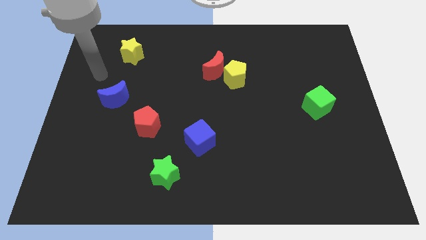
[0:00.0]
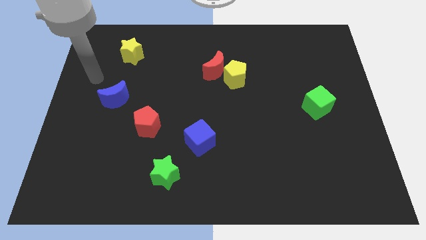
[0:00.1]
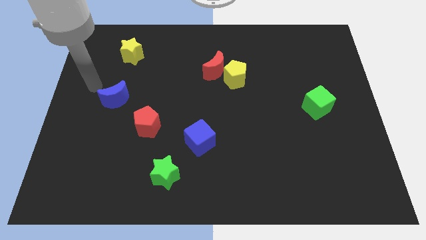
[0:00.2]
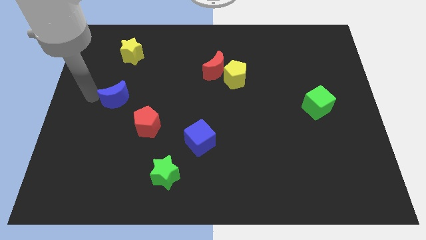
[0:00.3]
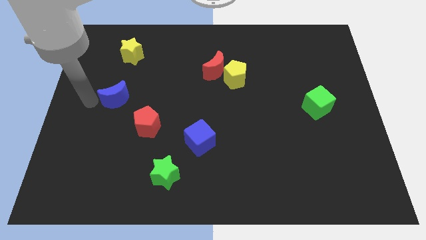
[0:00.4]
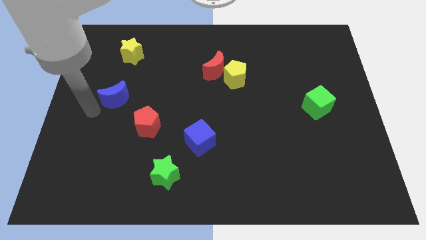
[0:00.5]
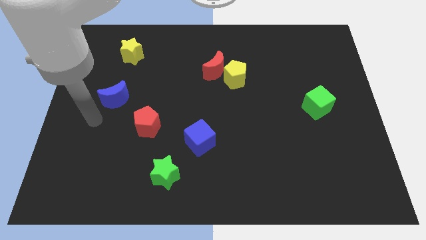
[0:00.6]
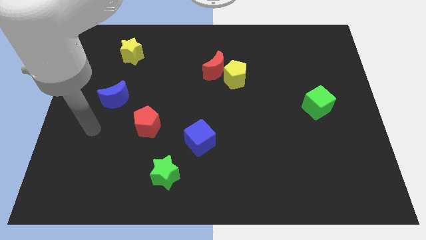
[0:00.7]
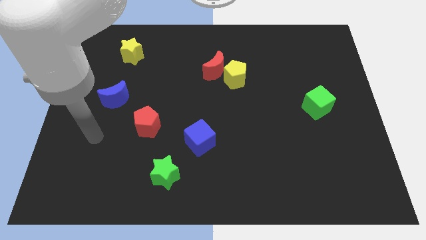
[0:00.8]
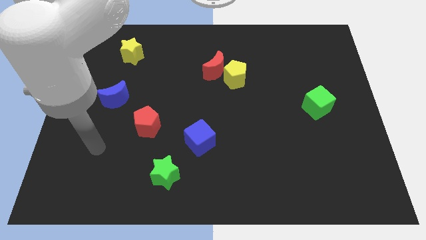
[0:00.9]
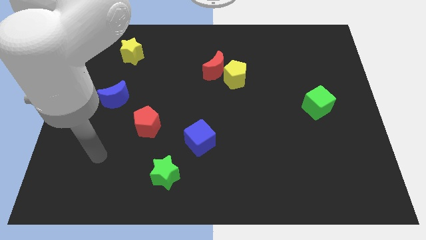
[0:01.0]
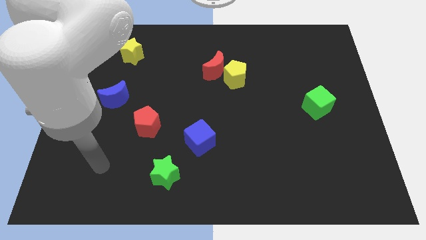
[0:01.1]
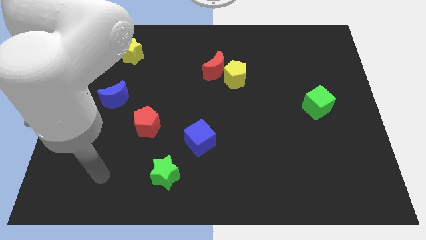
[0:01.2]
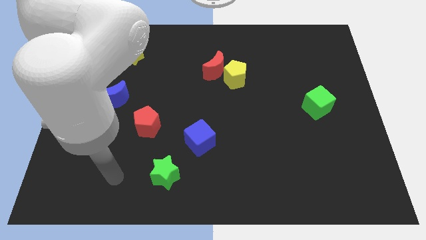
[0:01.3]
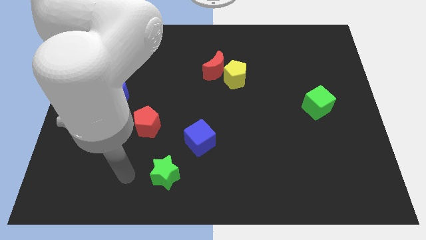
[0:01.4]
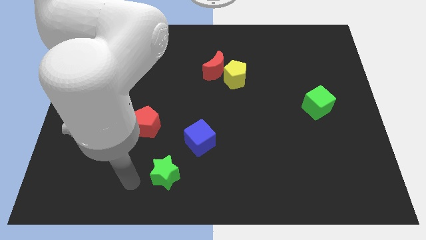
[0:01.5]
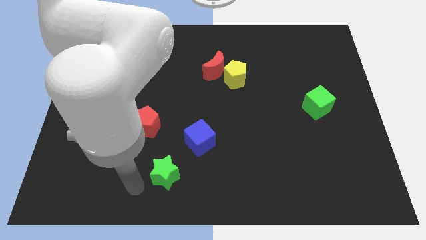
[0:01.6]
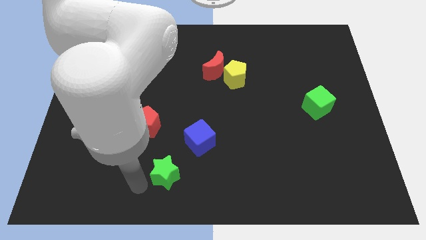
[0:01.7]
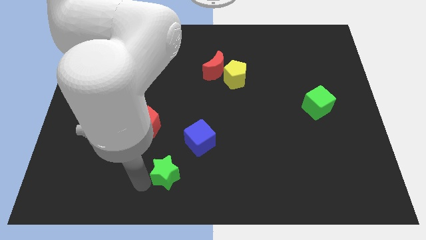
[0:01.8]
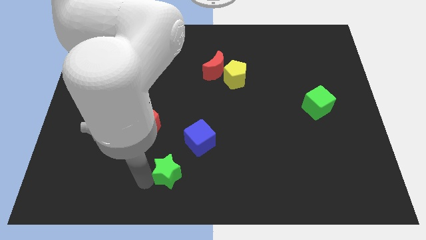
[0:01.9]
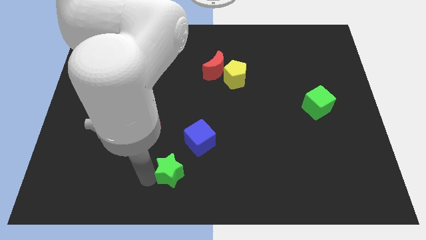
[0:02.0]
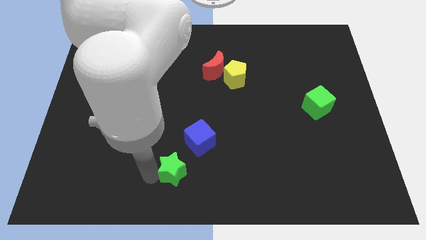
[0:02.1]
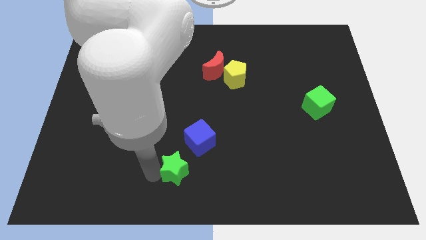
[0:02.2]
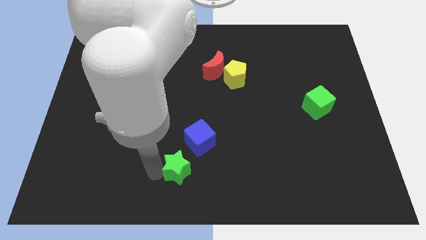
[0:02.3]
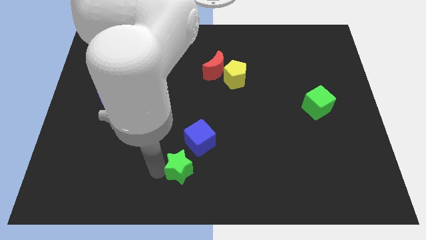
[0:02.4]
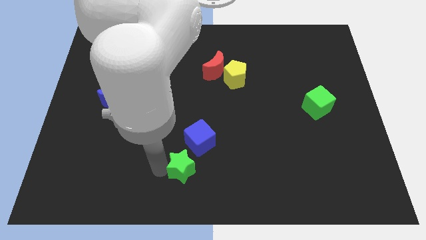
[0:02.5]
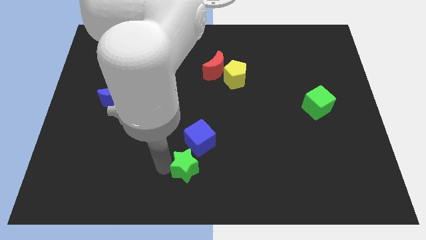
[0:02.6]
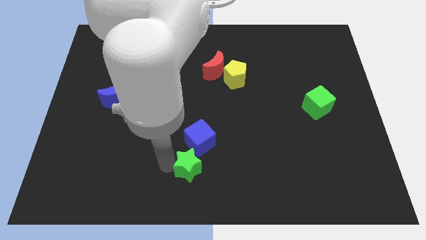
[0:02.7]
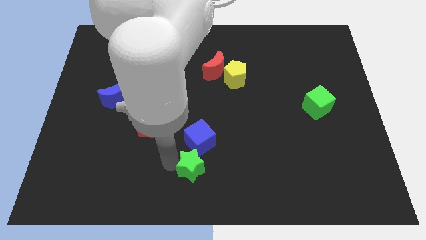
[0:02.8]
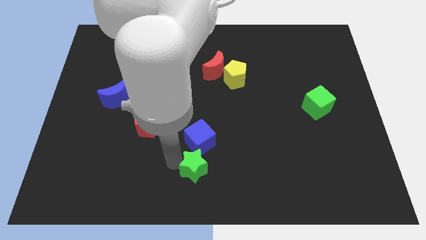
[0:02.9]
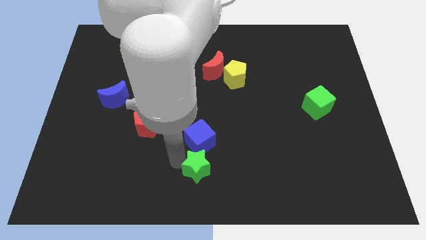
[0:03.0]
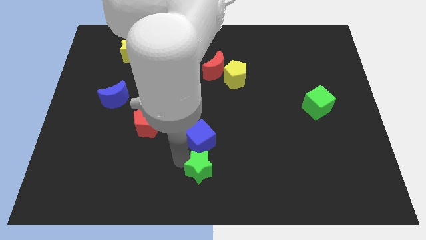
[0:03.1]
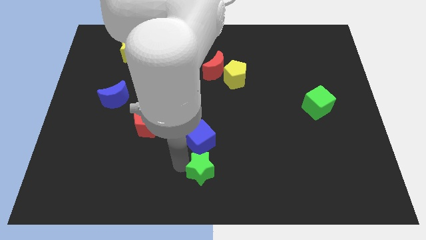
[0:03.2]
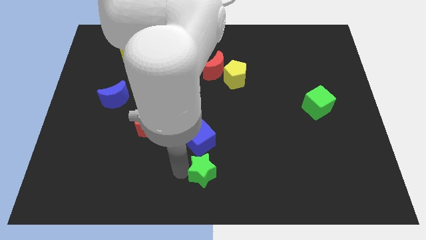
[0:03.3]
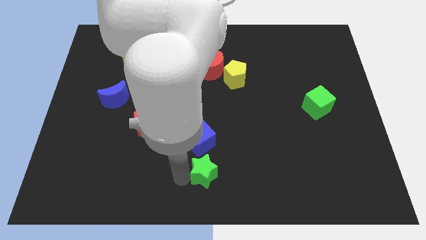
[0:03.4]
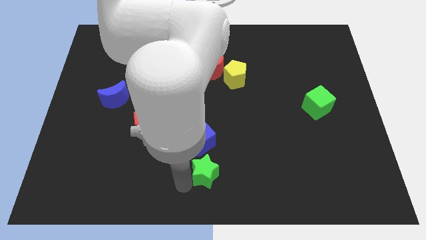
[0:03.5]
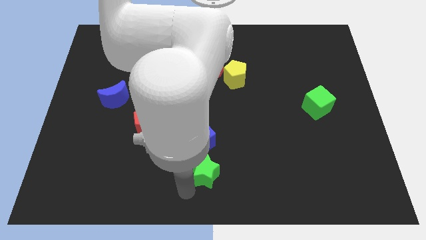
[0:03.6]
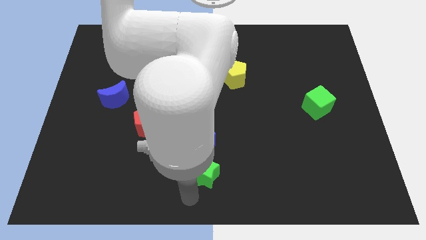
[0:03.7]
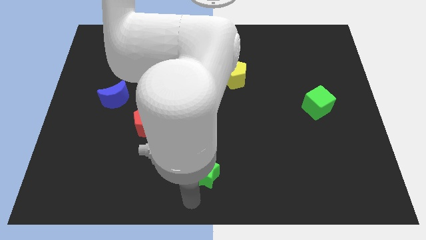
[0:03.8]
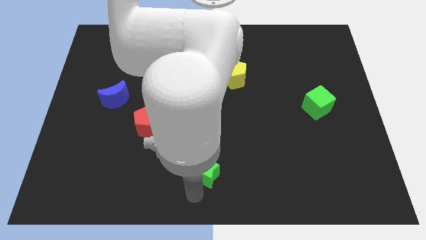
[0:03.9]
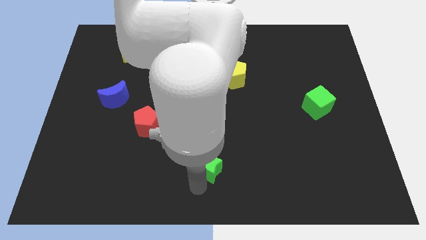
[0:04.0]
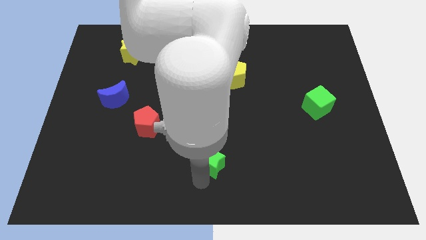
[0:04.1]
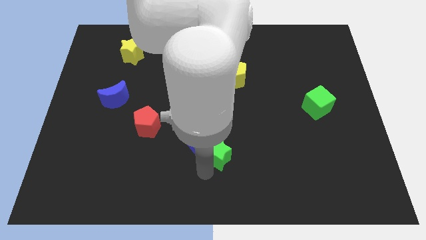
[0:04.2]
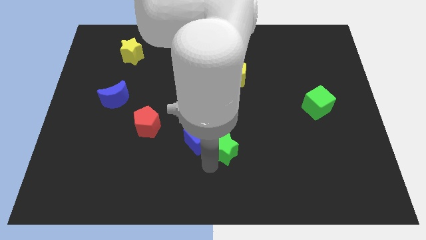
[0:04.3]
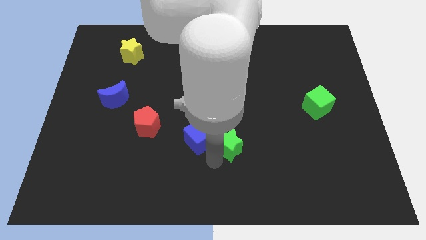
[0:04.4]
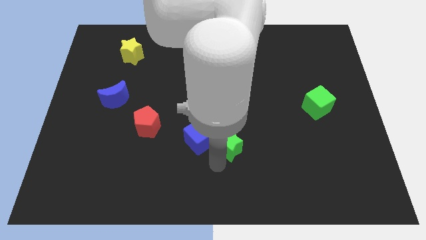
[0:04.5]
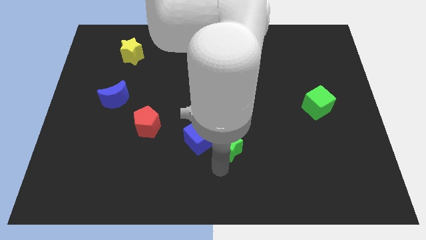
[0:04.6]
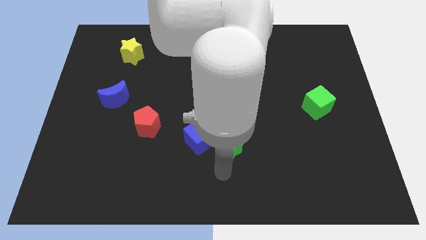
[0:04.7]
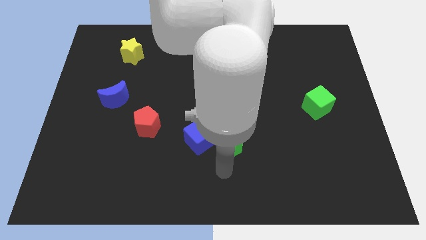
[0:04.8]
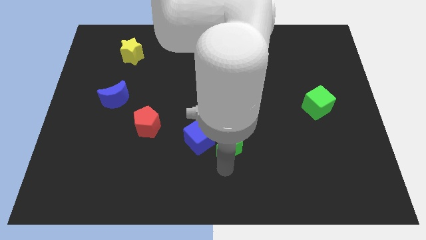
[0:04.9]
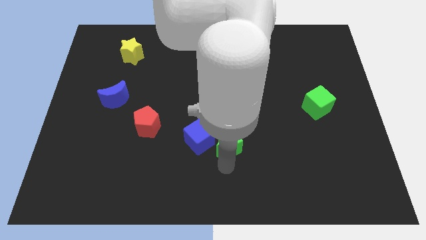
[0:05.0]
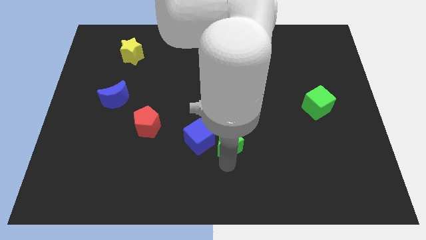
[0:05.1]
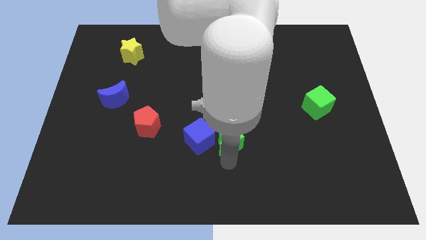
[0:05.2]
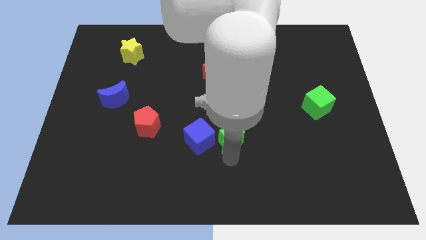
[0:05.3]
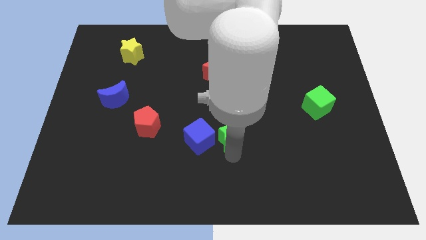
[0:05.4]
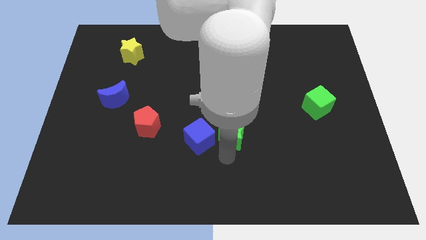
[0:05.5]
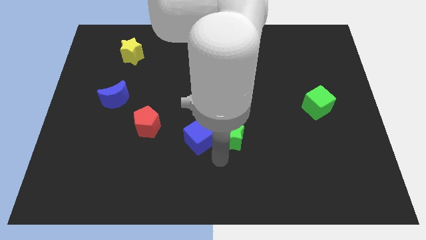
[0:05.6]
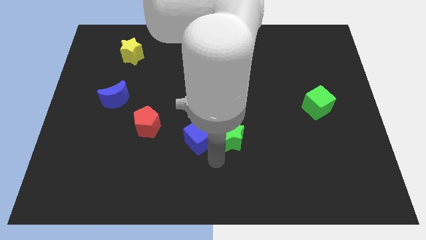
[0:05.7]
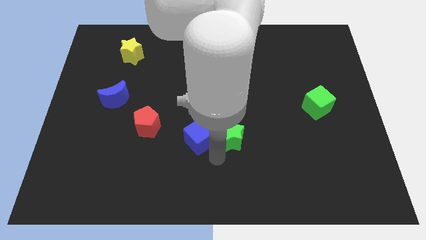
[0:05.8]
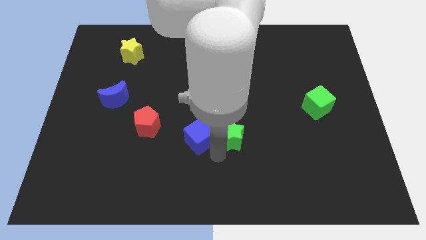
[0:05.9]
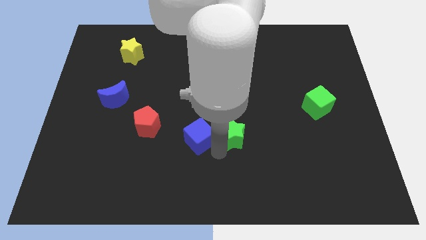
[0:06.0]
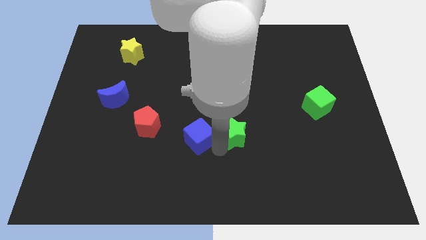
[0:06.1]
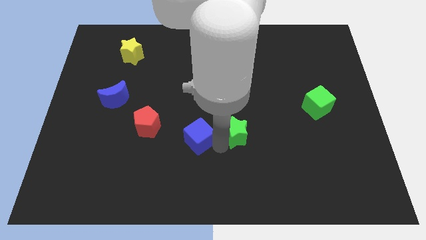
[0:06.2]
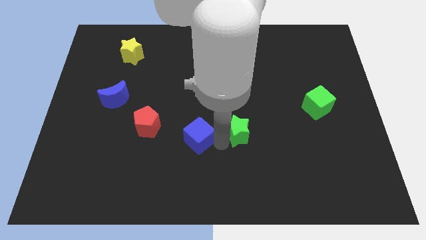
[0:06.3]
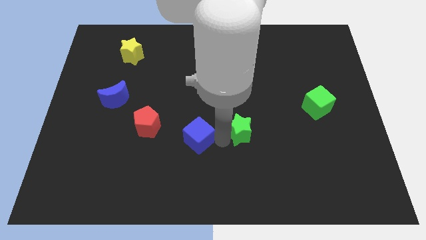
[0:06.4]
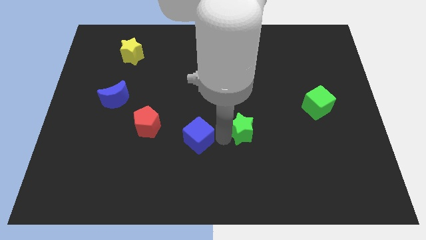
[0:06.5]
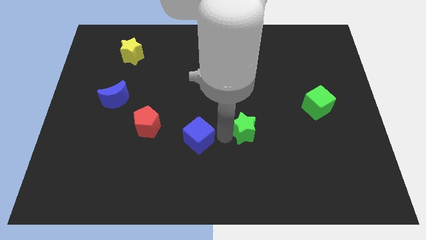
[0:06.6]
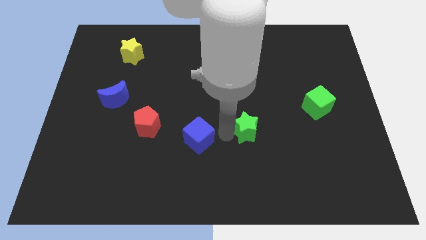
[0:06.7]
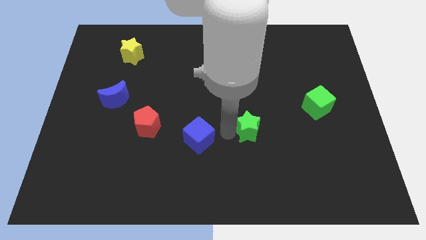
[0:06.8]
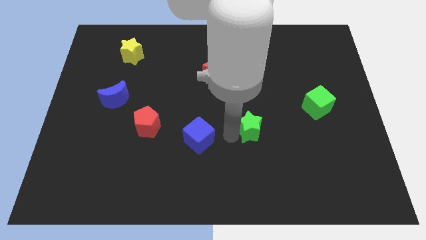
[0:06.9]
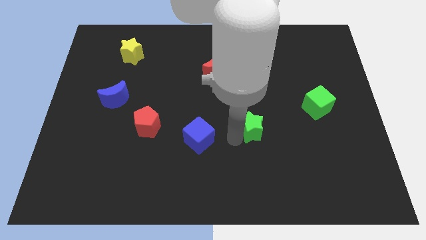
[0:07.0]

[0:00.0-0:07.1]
push the green star up and right diagonally

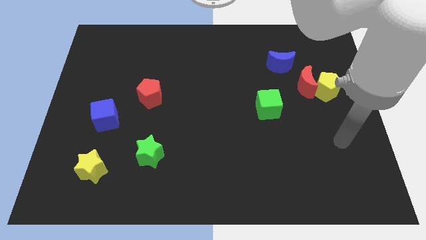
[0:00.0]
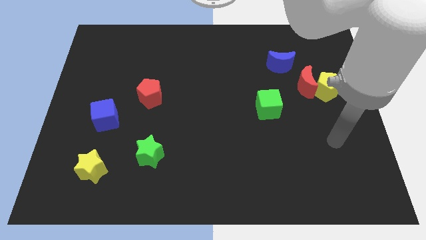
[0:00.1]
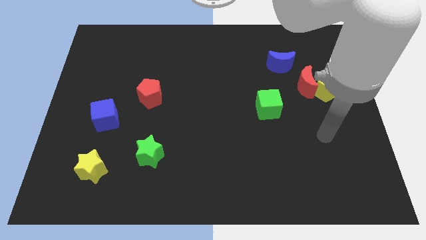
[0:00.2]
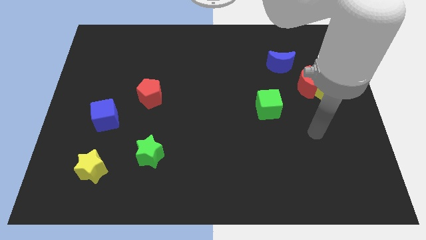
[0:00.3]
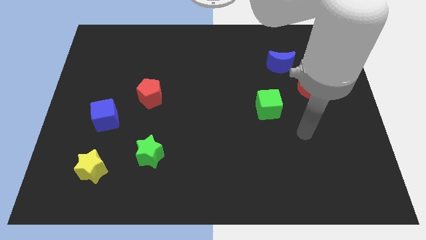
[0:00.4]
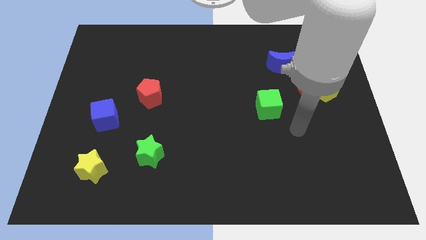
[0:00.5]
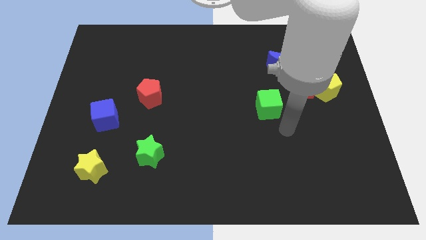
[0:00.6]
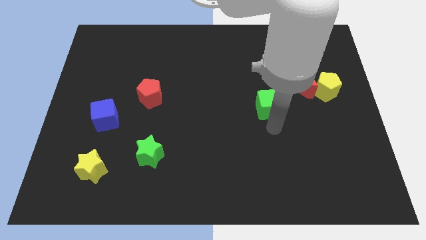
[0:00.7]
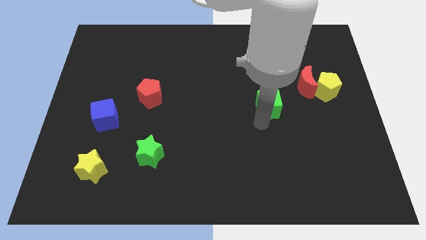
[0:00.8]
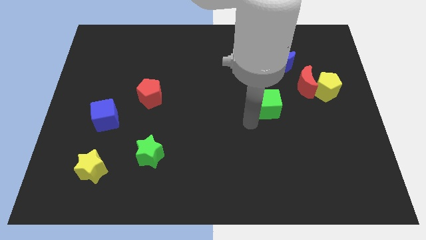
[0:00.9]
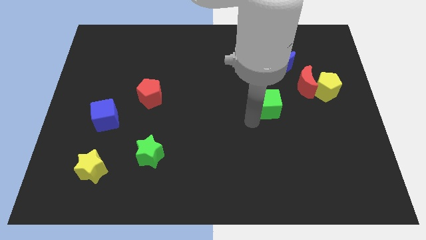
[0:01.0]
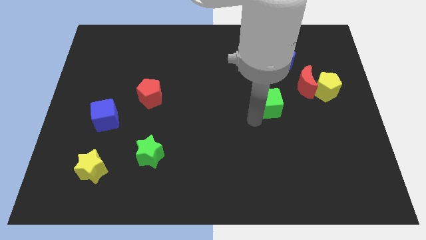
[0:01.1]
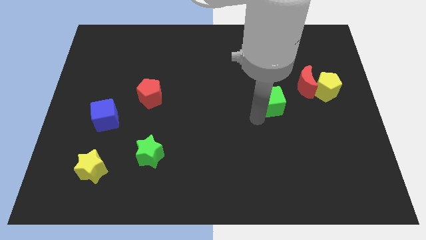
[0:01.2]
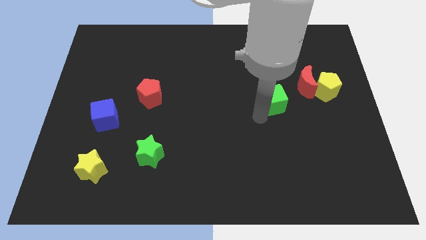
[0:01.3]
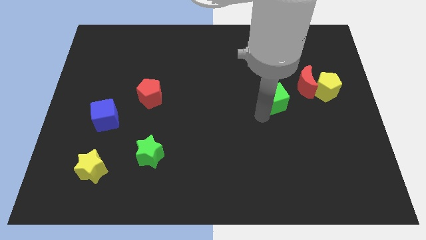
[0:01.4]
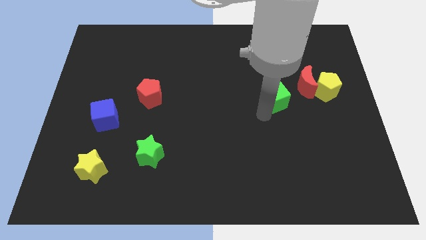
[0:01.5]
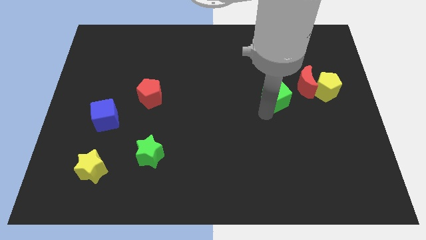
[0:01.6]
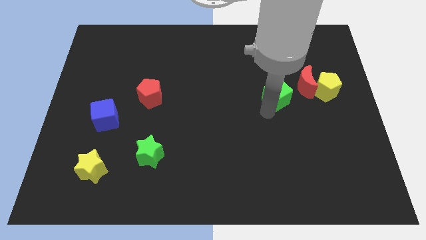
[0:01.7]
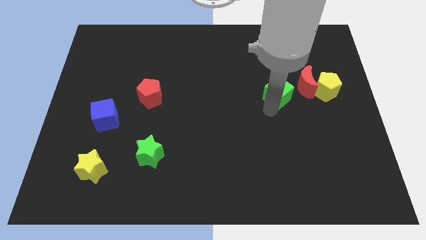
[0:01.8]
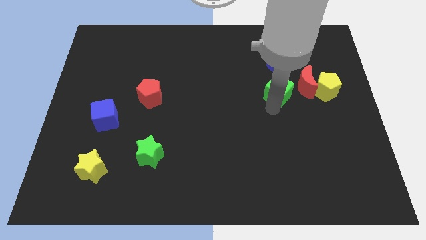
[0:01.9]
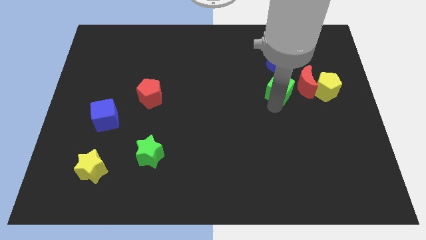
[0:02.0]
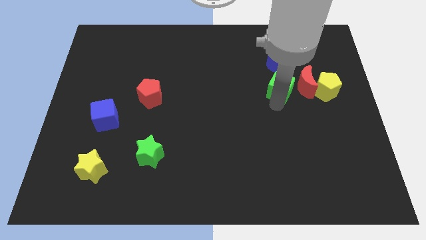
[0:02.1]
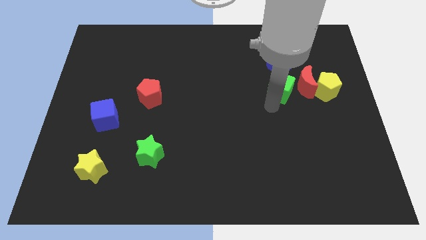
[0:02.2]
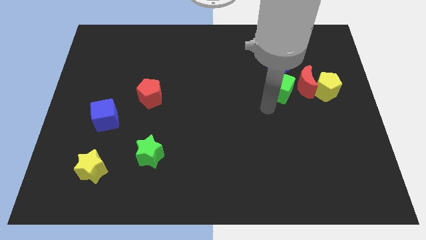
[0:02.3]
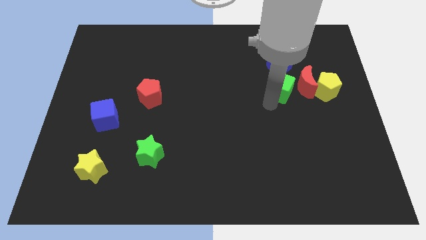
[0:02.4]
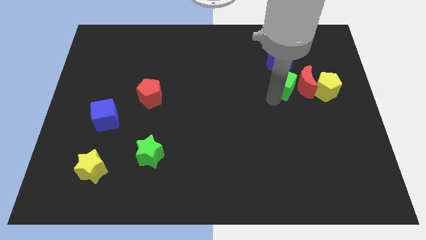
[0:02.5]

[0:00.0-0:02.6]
slightly slide the green cube upwards and to the right
